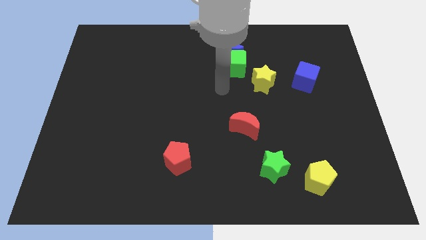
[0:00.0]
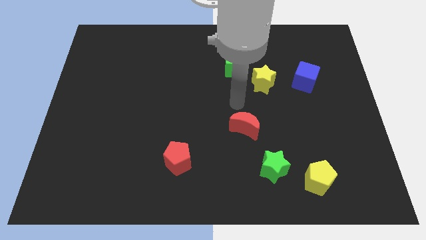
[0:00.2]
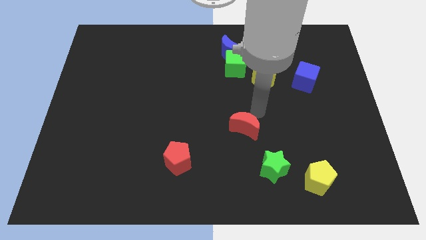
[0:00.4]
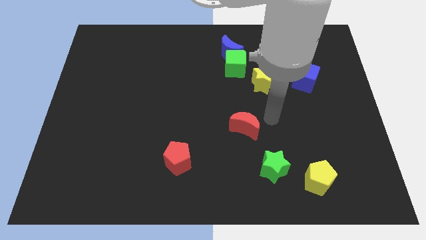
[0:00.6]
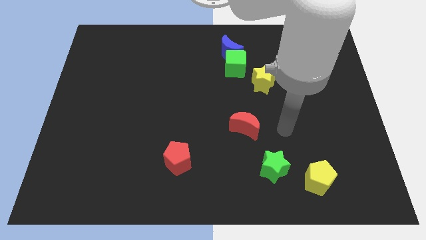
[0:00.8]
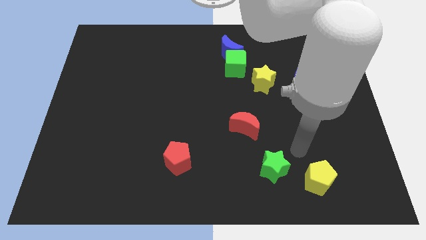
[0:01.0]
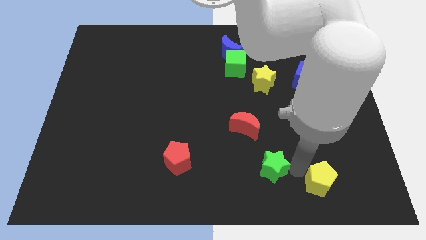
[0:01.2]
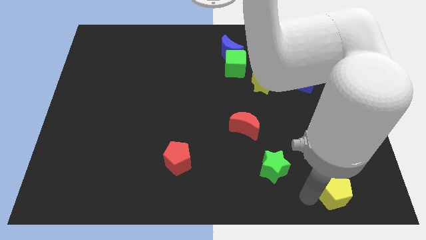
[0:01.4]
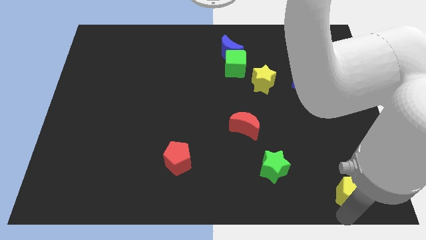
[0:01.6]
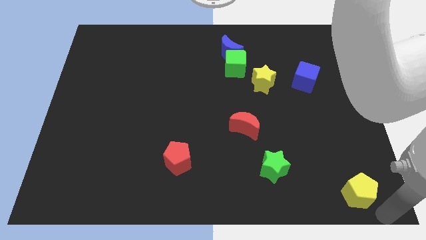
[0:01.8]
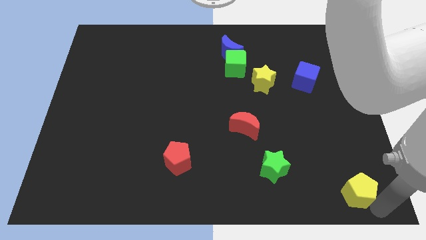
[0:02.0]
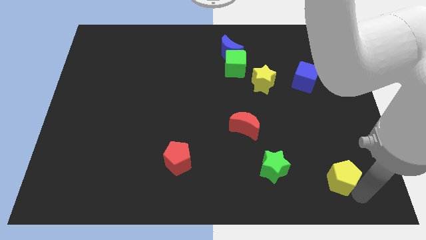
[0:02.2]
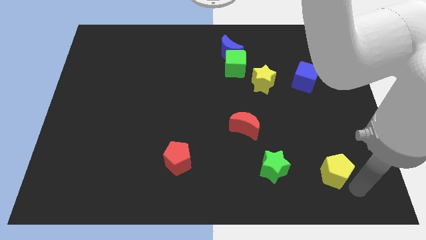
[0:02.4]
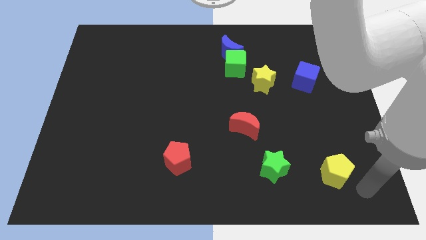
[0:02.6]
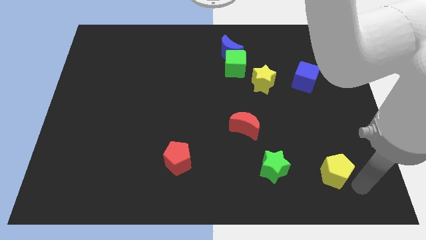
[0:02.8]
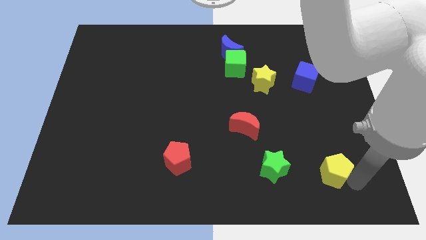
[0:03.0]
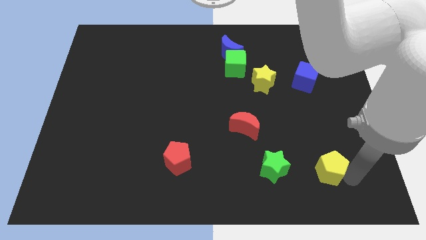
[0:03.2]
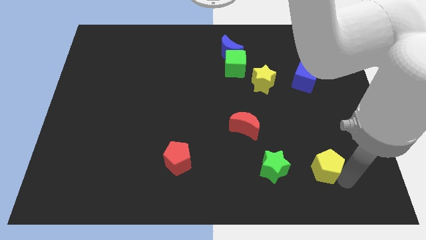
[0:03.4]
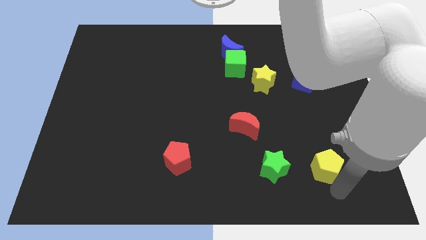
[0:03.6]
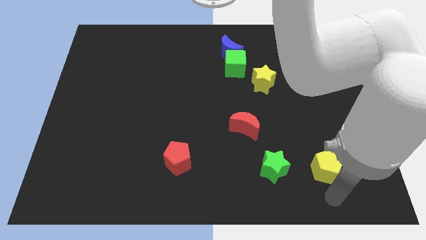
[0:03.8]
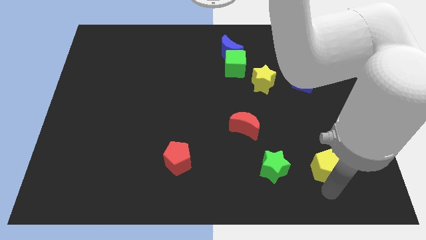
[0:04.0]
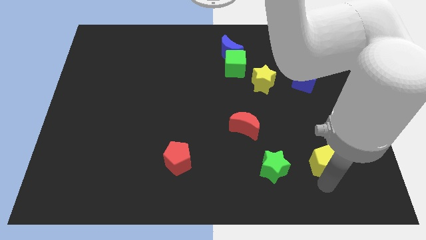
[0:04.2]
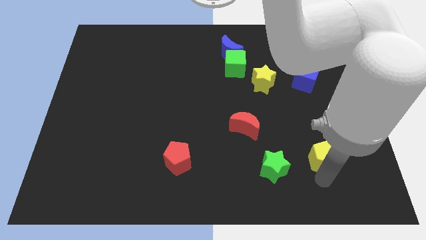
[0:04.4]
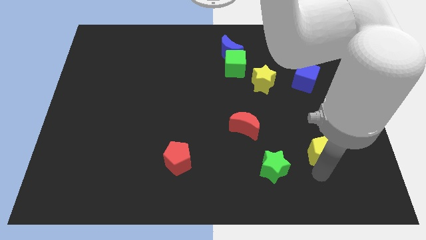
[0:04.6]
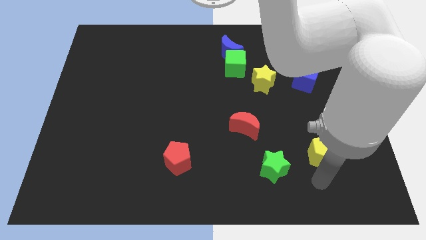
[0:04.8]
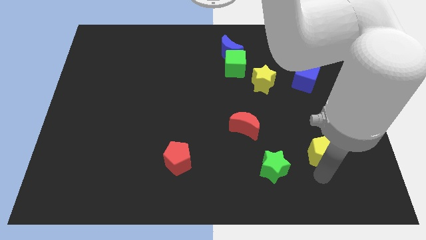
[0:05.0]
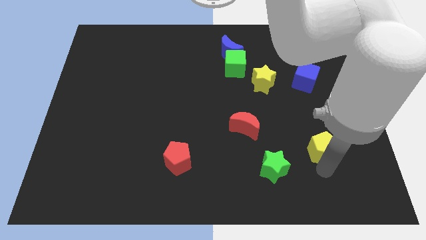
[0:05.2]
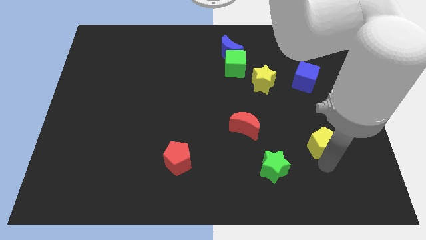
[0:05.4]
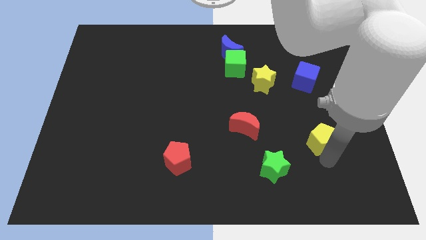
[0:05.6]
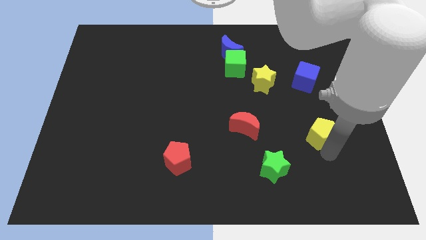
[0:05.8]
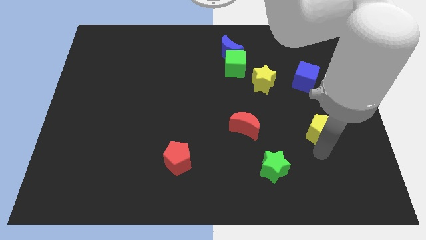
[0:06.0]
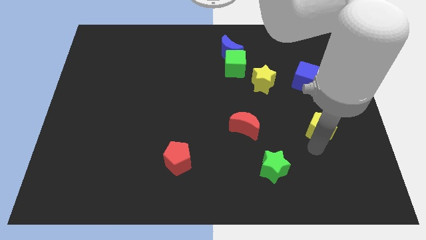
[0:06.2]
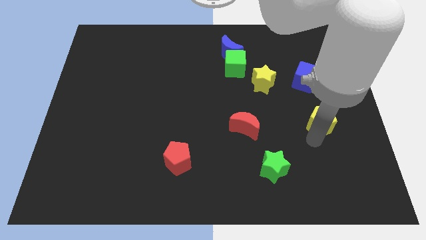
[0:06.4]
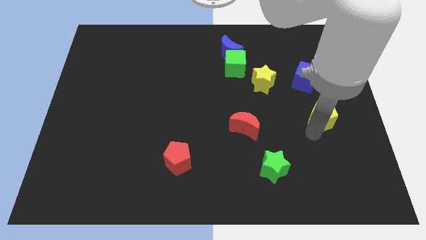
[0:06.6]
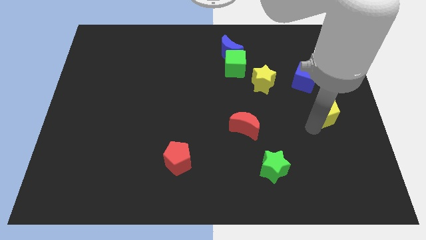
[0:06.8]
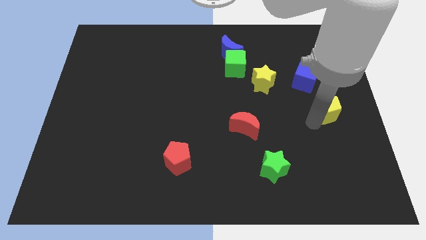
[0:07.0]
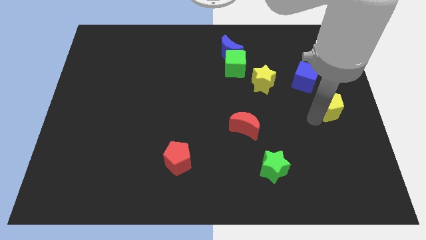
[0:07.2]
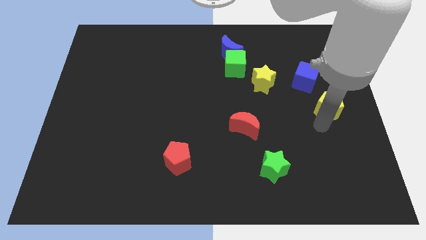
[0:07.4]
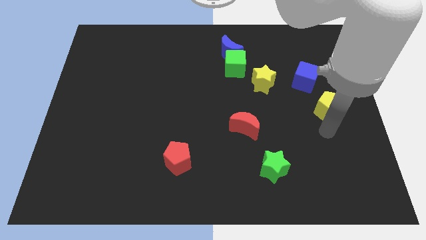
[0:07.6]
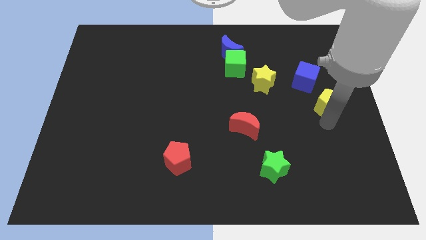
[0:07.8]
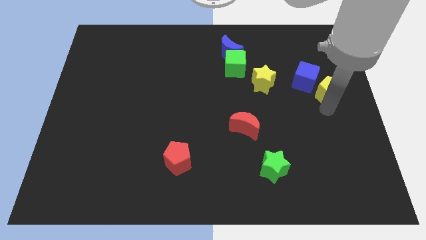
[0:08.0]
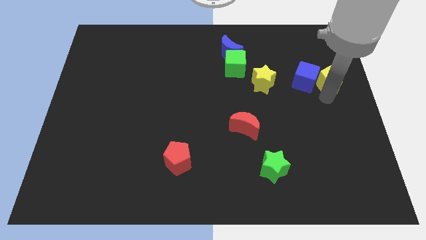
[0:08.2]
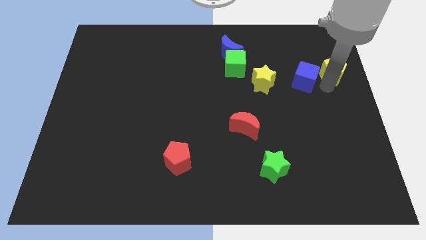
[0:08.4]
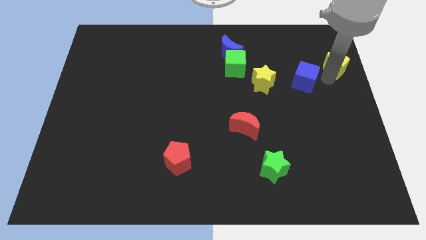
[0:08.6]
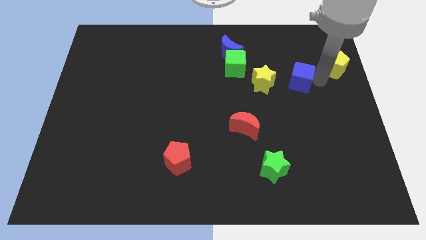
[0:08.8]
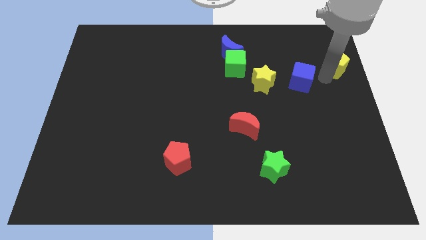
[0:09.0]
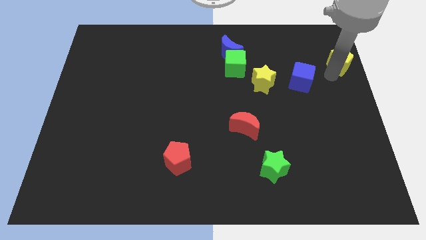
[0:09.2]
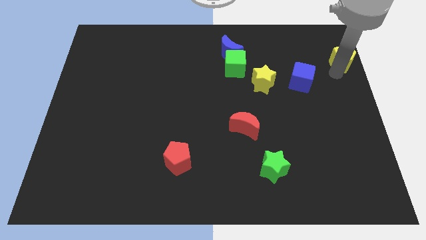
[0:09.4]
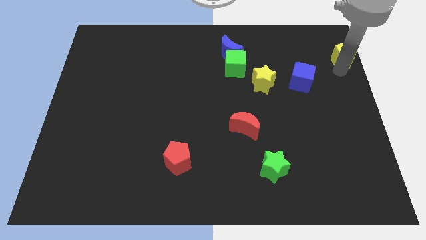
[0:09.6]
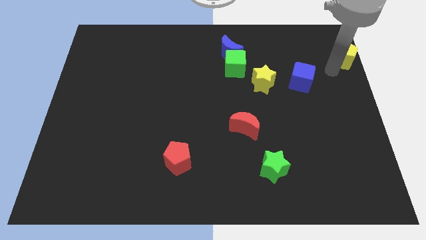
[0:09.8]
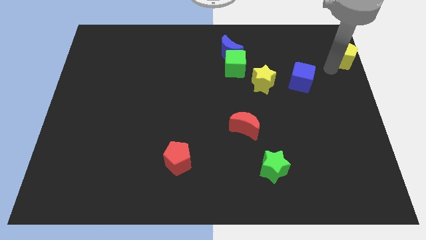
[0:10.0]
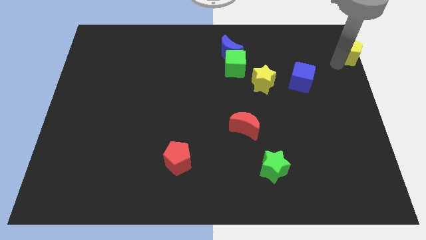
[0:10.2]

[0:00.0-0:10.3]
push the yellow pentagon to the top right

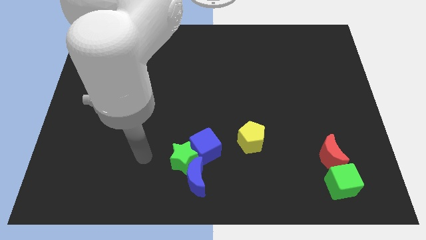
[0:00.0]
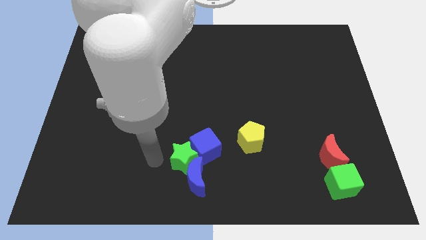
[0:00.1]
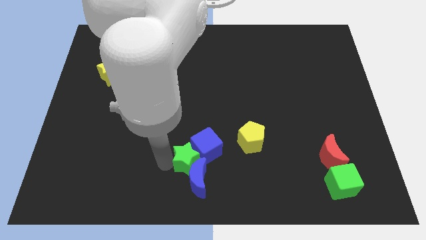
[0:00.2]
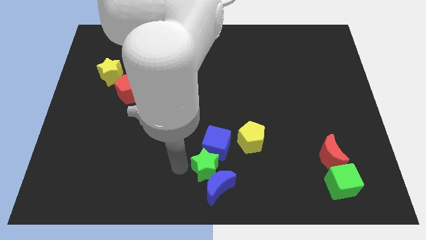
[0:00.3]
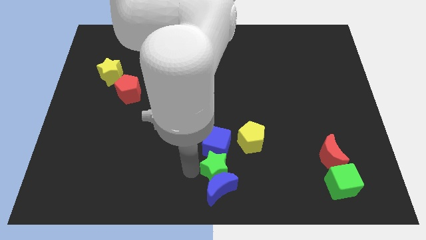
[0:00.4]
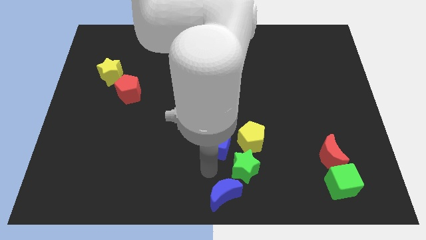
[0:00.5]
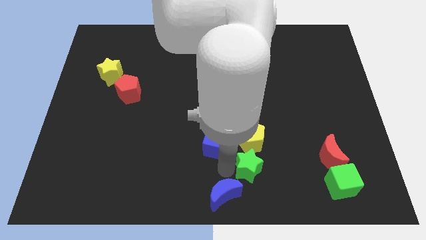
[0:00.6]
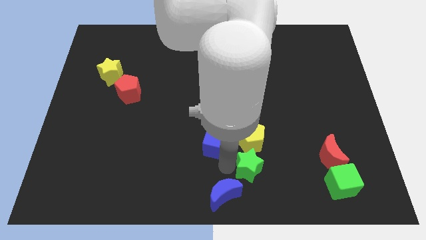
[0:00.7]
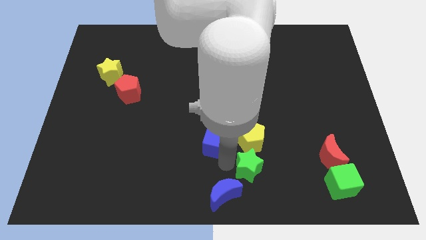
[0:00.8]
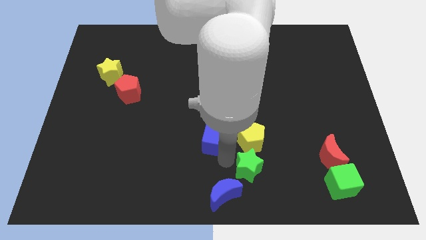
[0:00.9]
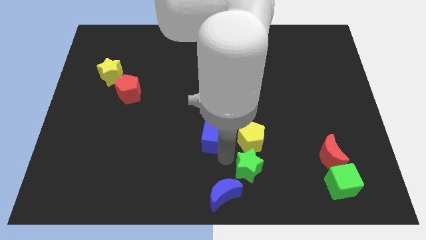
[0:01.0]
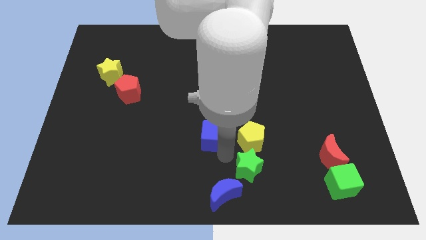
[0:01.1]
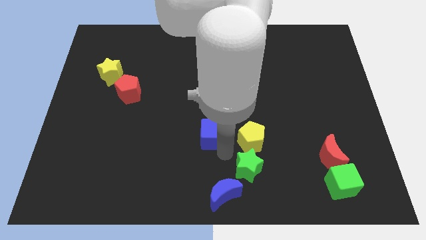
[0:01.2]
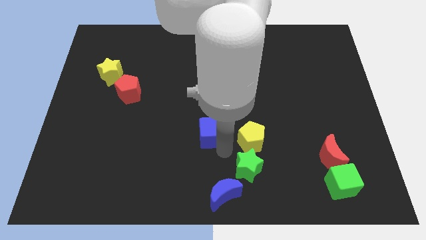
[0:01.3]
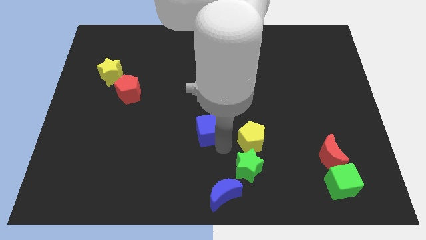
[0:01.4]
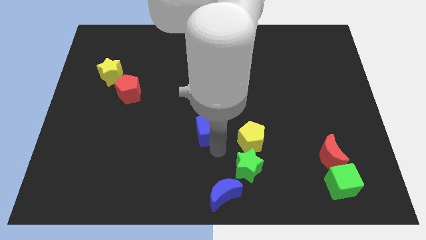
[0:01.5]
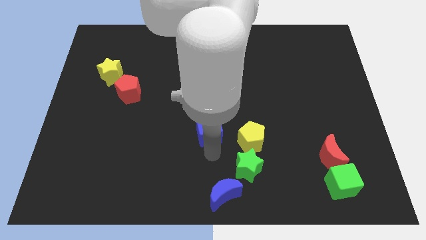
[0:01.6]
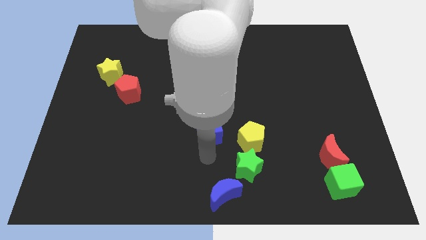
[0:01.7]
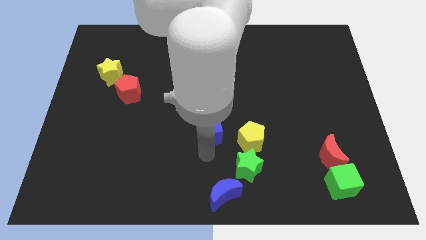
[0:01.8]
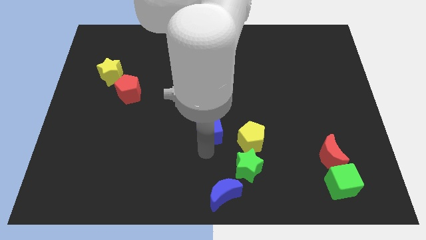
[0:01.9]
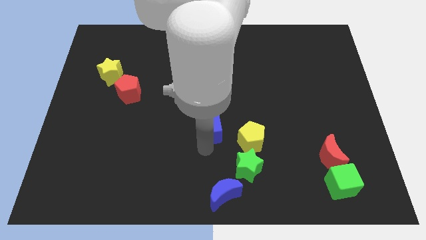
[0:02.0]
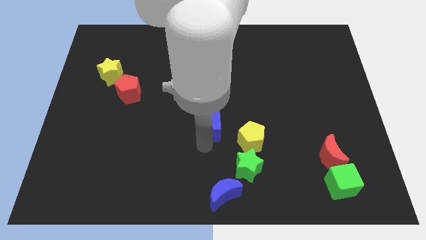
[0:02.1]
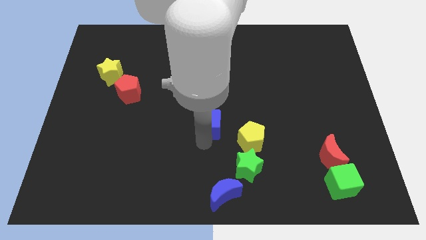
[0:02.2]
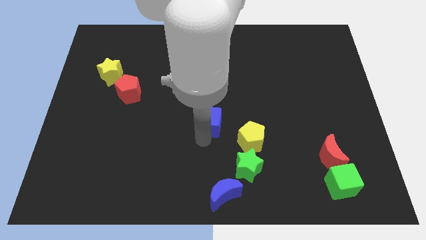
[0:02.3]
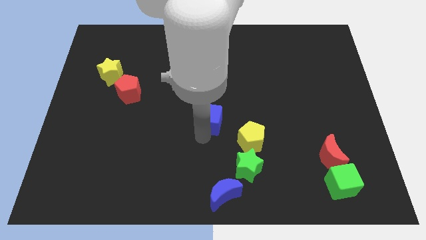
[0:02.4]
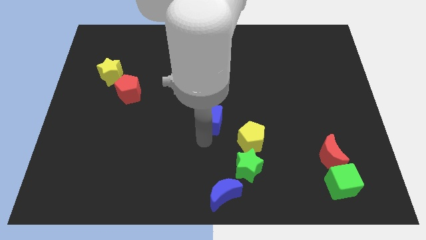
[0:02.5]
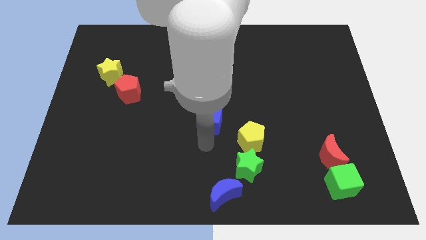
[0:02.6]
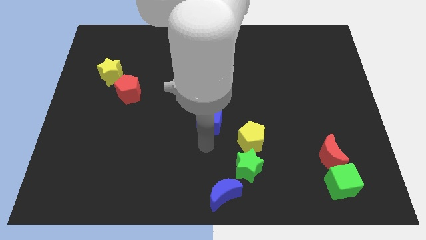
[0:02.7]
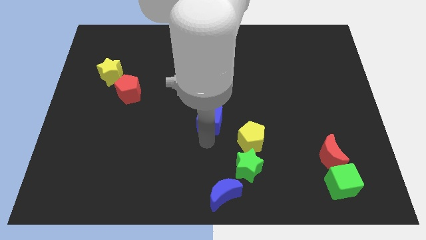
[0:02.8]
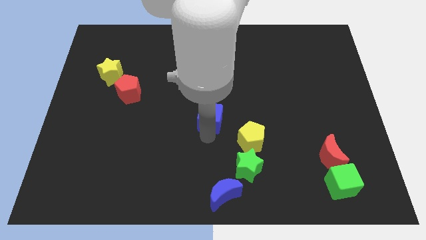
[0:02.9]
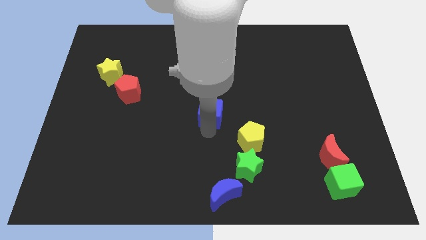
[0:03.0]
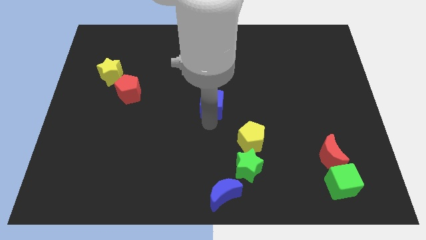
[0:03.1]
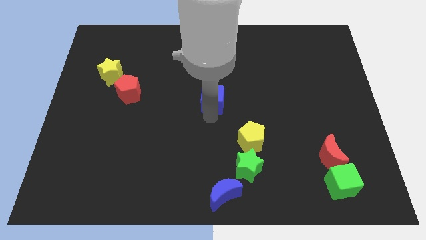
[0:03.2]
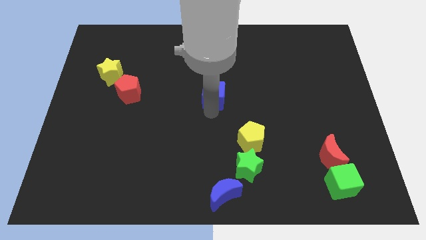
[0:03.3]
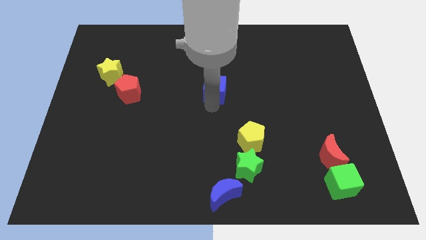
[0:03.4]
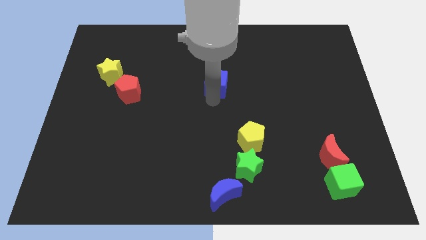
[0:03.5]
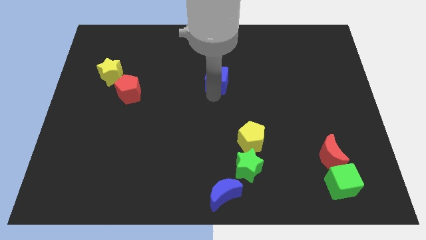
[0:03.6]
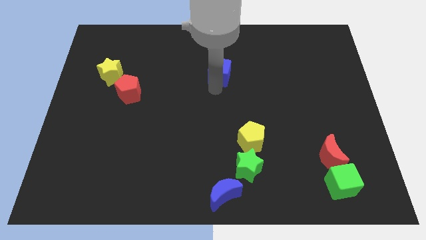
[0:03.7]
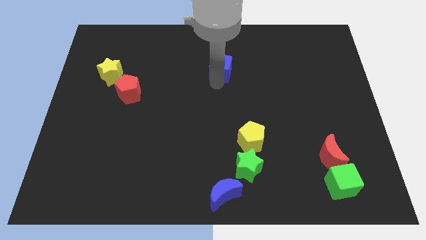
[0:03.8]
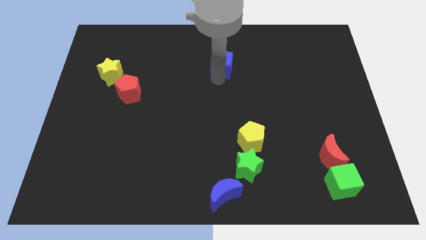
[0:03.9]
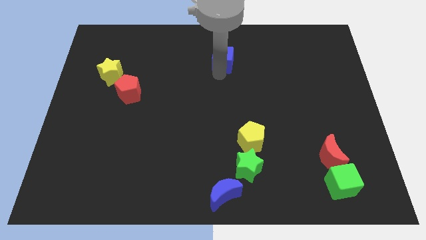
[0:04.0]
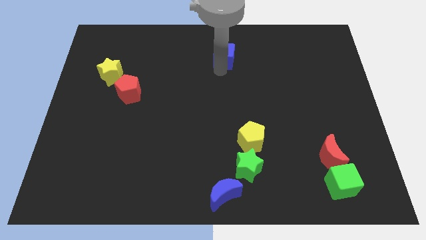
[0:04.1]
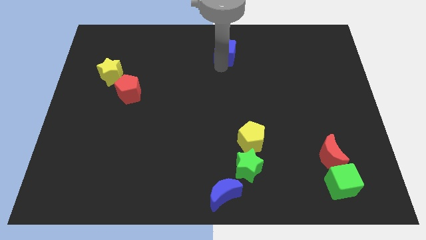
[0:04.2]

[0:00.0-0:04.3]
push the blue cube to the towards your base
